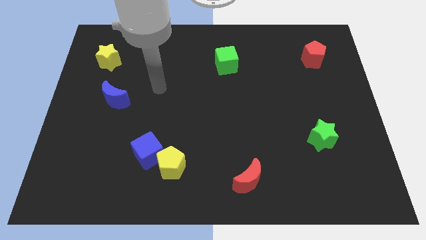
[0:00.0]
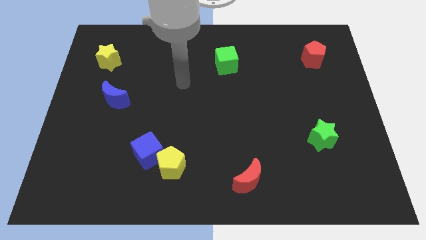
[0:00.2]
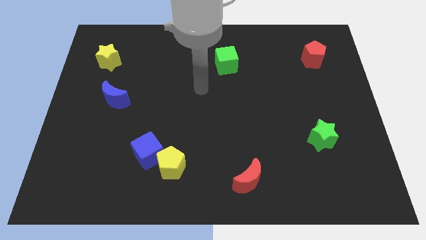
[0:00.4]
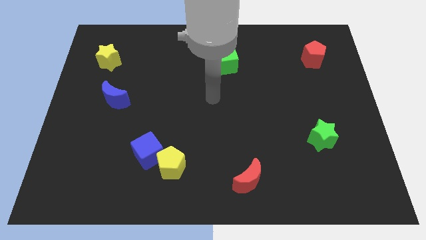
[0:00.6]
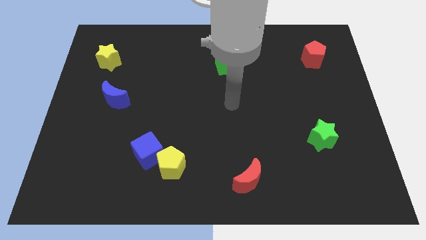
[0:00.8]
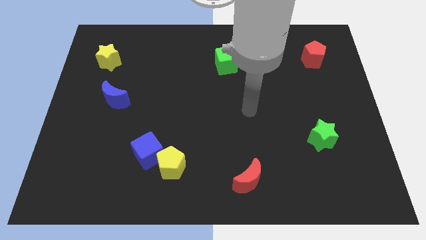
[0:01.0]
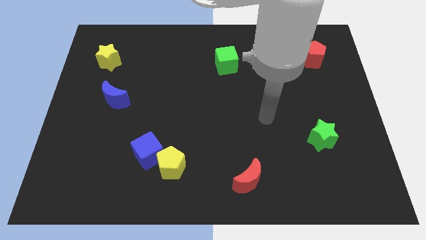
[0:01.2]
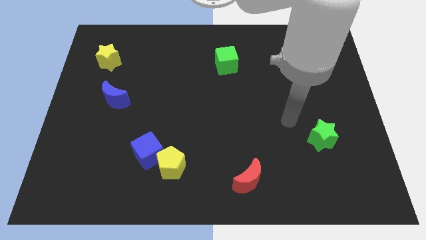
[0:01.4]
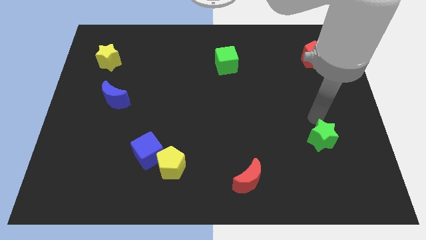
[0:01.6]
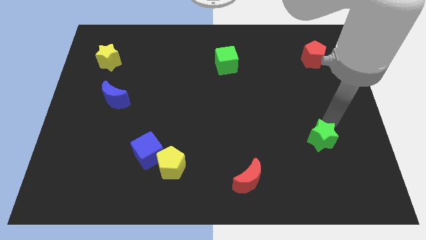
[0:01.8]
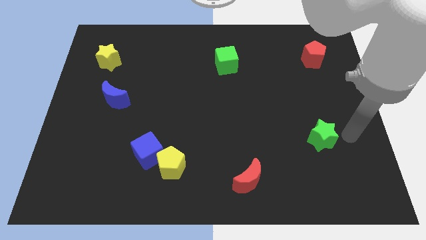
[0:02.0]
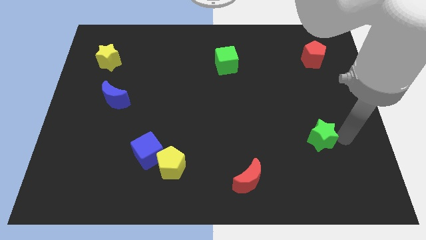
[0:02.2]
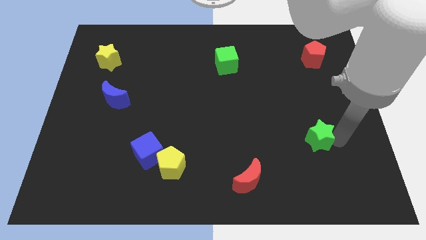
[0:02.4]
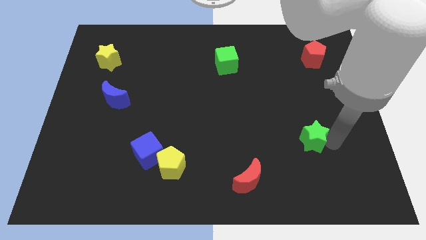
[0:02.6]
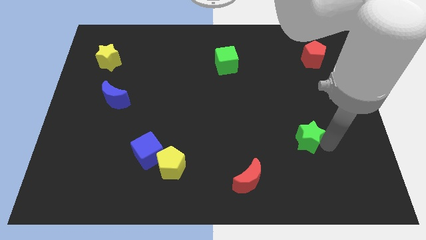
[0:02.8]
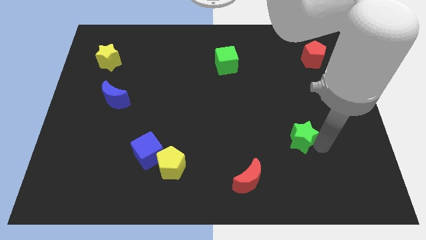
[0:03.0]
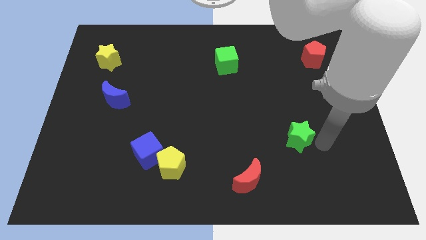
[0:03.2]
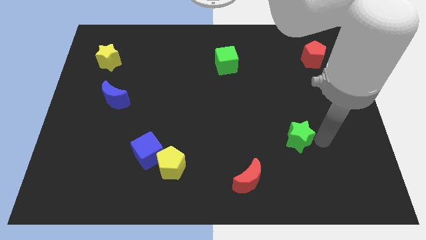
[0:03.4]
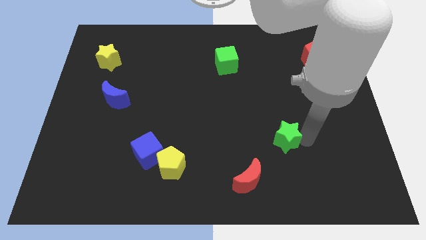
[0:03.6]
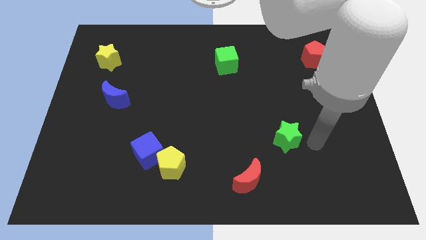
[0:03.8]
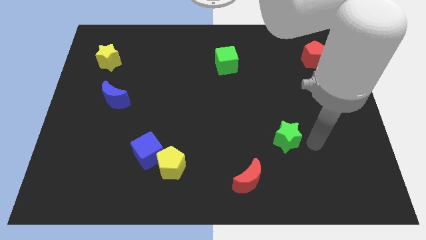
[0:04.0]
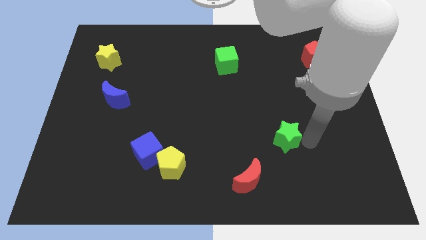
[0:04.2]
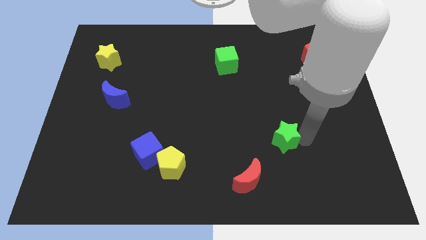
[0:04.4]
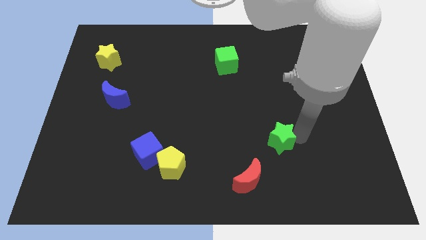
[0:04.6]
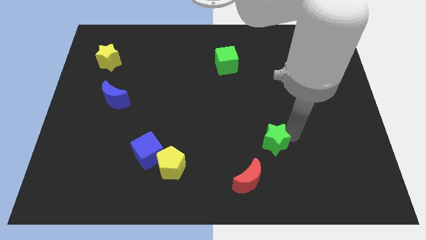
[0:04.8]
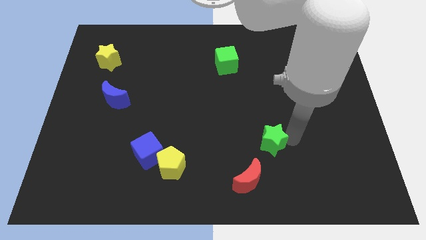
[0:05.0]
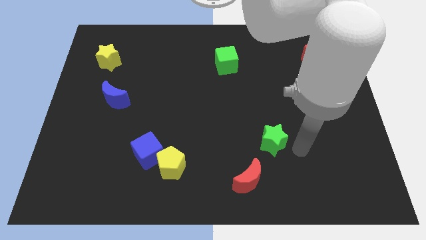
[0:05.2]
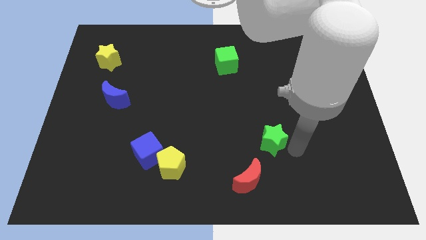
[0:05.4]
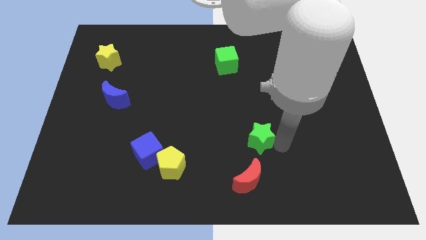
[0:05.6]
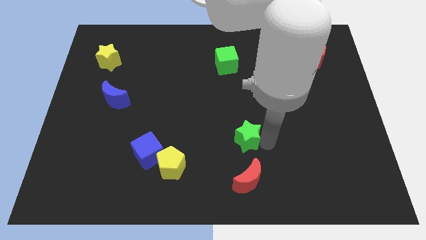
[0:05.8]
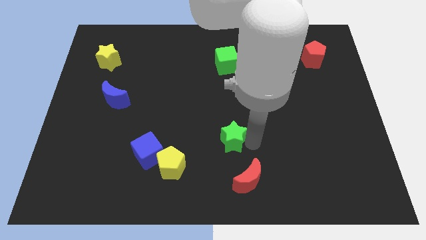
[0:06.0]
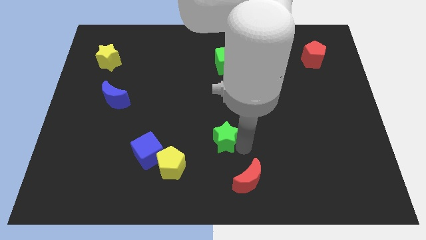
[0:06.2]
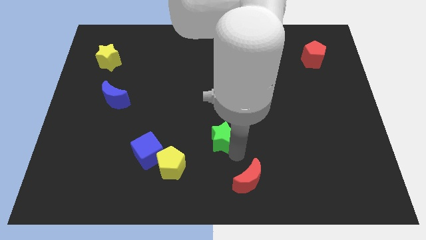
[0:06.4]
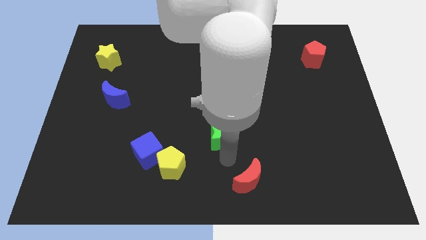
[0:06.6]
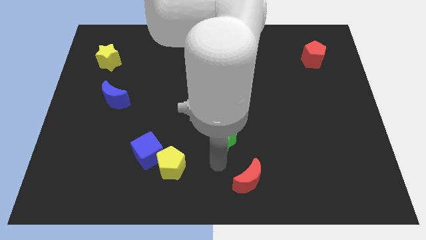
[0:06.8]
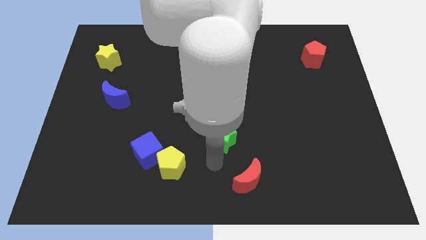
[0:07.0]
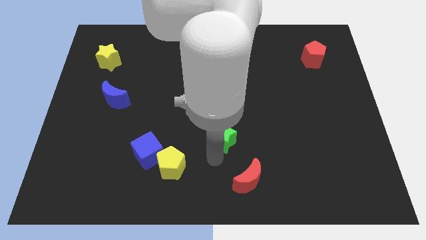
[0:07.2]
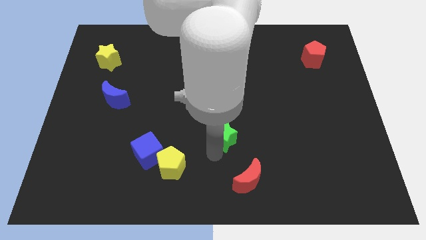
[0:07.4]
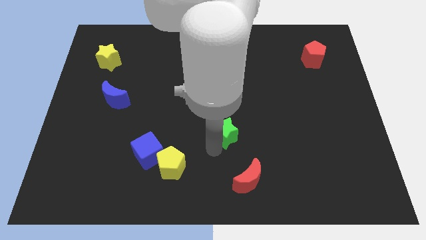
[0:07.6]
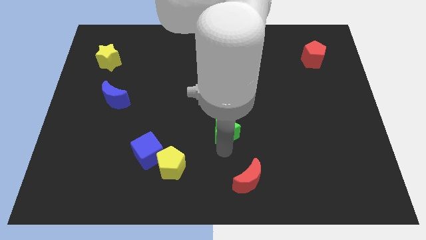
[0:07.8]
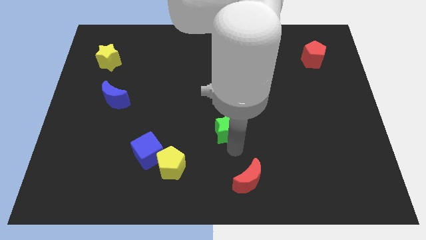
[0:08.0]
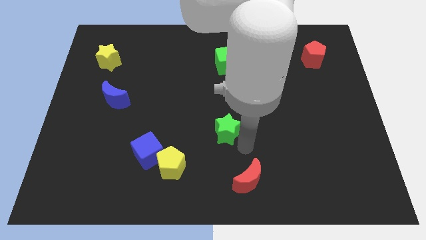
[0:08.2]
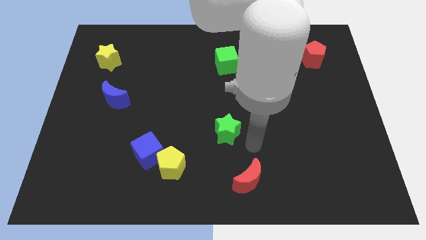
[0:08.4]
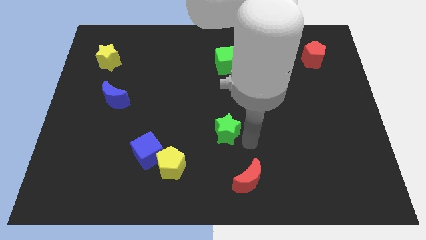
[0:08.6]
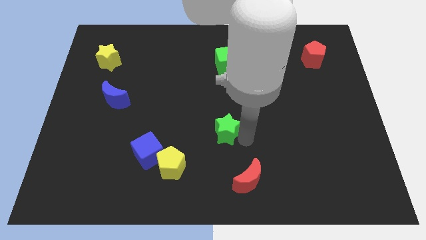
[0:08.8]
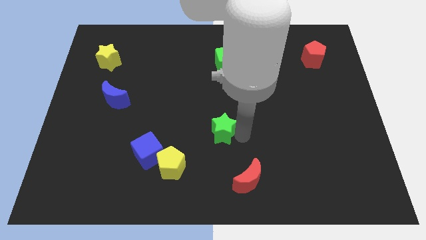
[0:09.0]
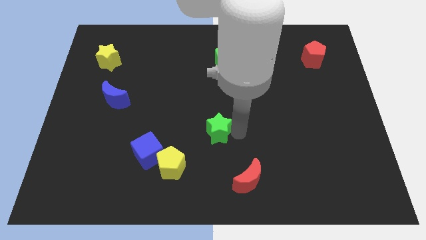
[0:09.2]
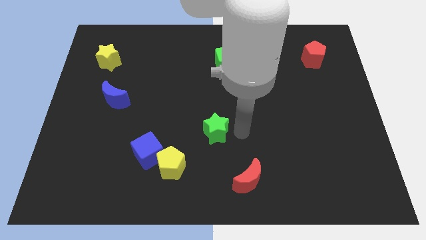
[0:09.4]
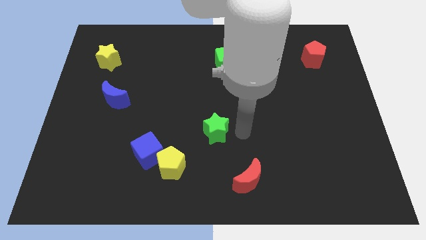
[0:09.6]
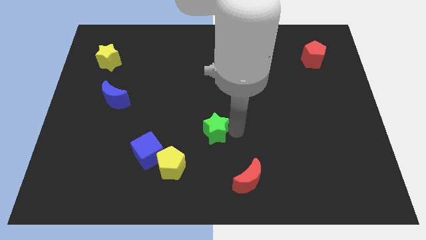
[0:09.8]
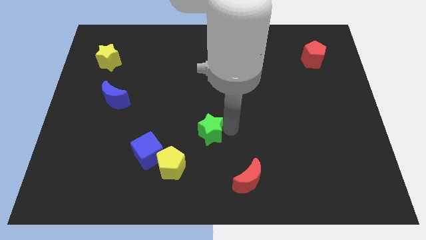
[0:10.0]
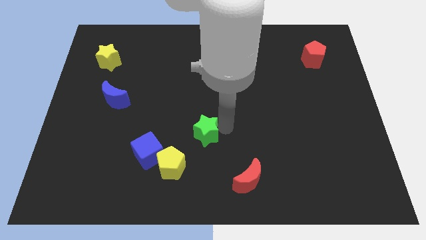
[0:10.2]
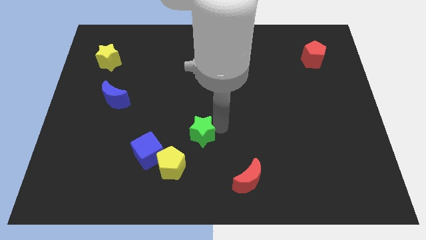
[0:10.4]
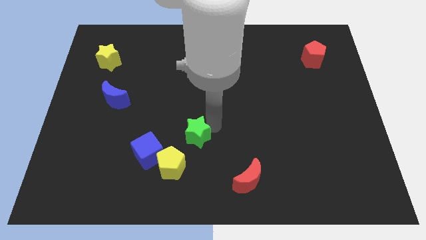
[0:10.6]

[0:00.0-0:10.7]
slide the green star to the top right side of the blue cube
